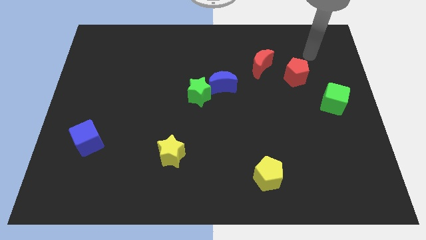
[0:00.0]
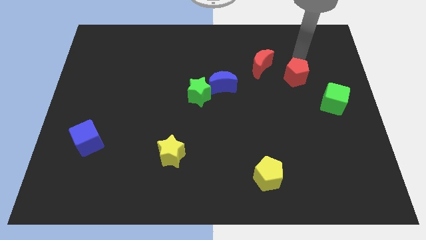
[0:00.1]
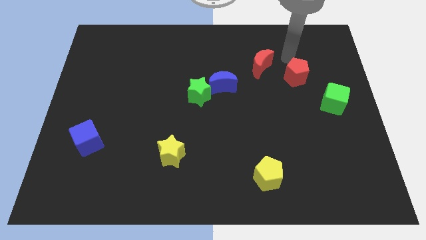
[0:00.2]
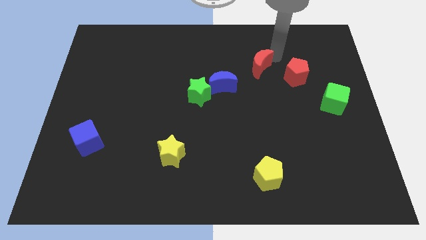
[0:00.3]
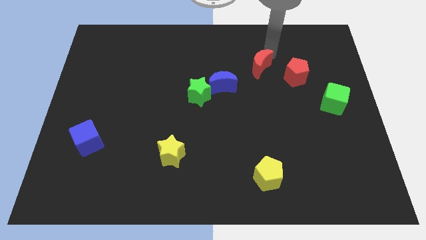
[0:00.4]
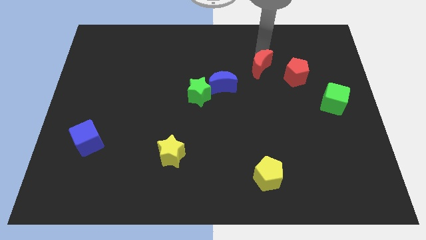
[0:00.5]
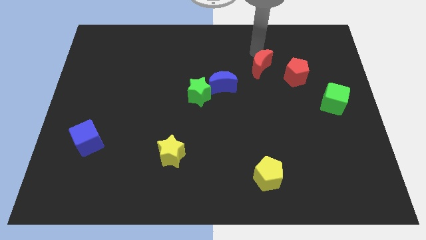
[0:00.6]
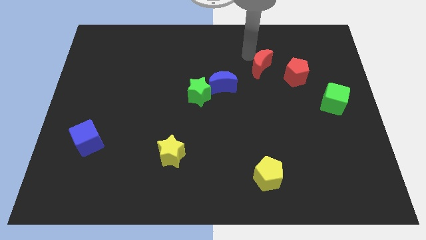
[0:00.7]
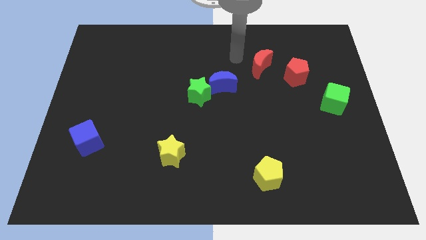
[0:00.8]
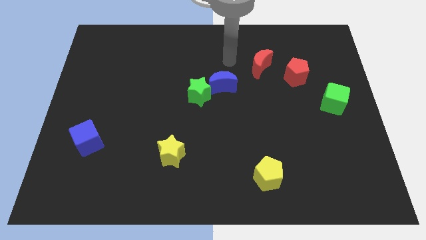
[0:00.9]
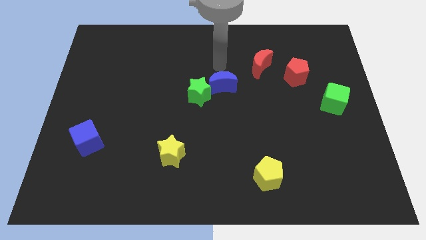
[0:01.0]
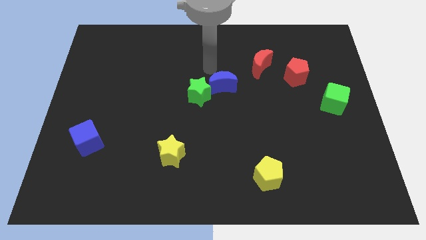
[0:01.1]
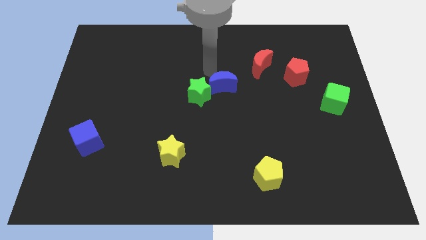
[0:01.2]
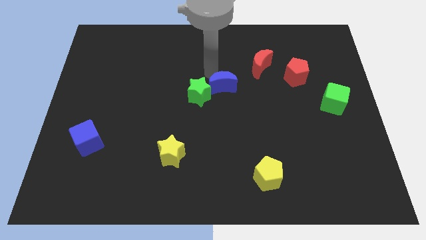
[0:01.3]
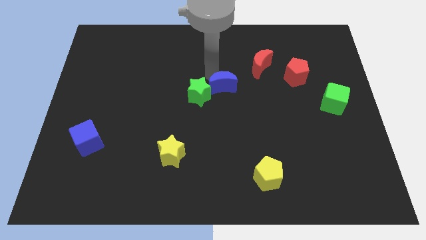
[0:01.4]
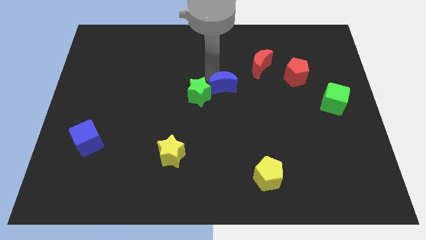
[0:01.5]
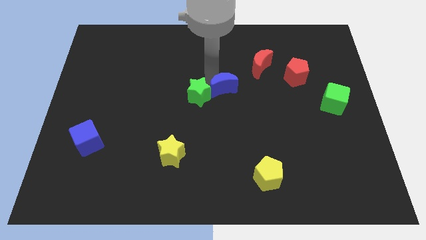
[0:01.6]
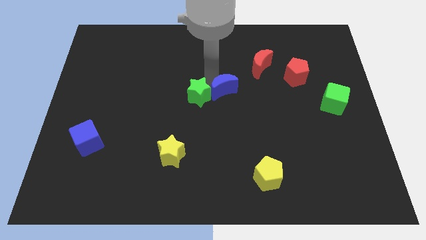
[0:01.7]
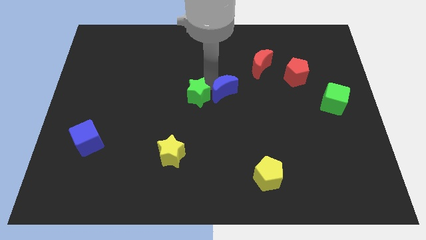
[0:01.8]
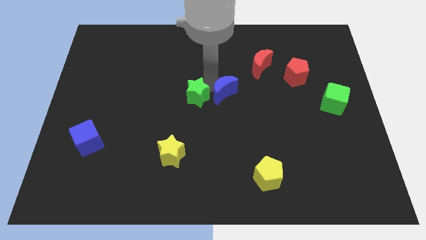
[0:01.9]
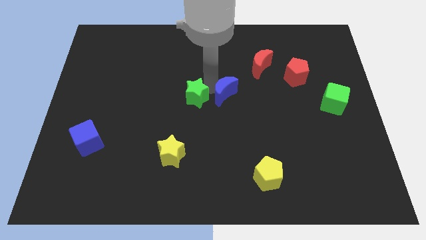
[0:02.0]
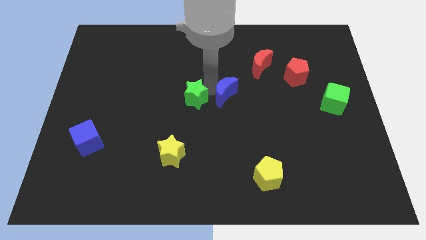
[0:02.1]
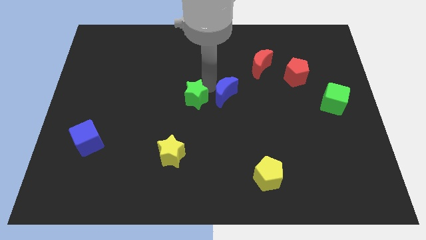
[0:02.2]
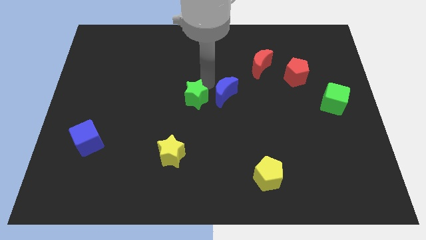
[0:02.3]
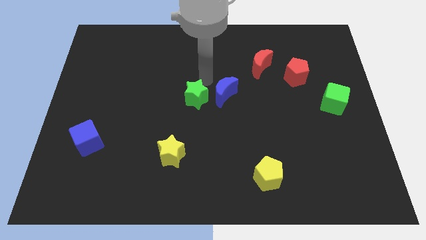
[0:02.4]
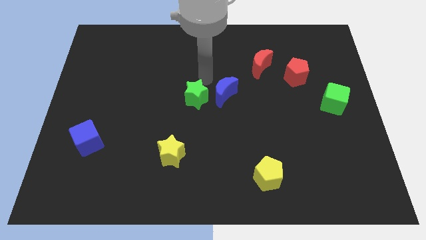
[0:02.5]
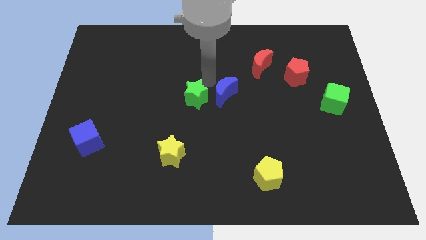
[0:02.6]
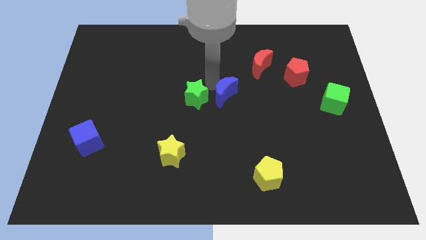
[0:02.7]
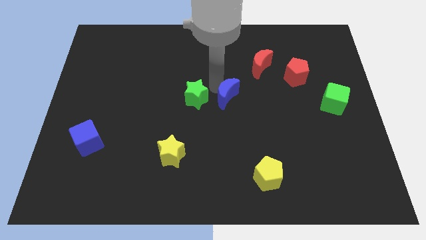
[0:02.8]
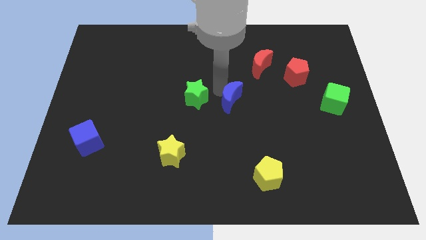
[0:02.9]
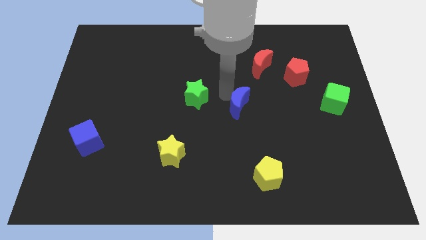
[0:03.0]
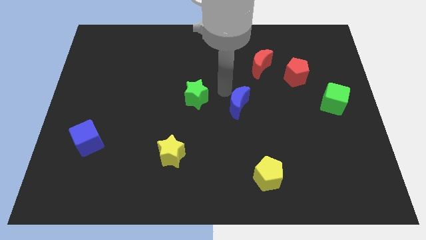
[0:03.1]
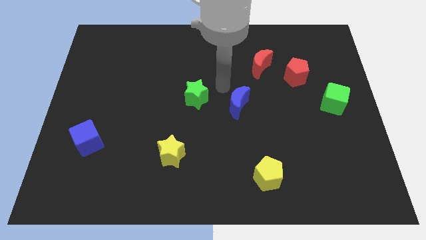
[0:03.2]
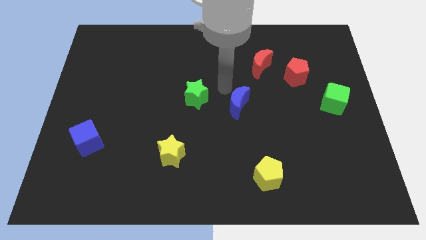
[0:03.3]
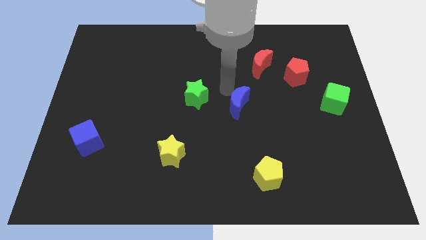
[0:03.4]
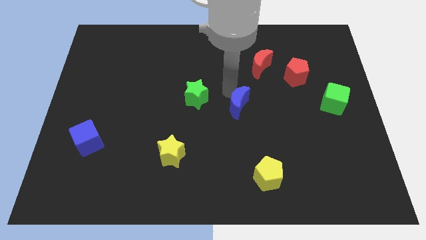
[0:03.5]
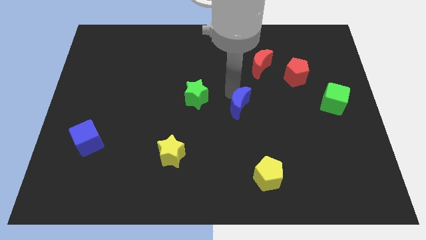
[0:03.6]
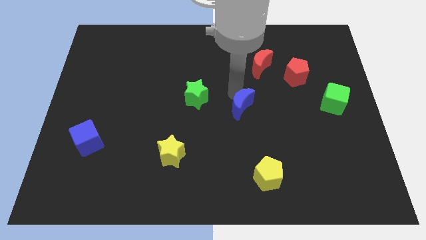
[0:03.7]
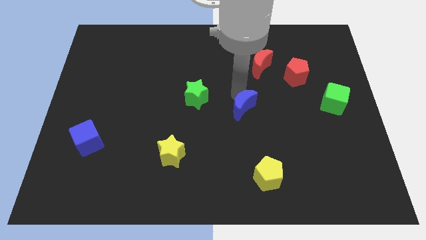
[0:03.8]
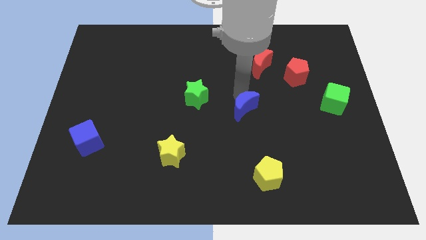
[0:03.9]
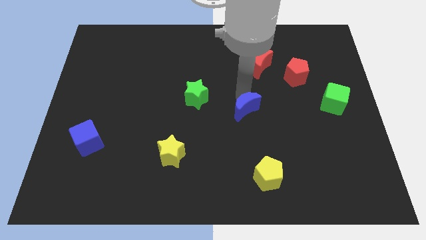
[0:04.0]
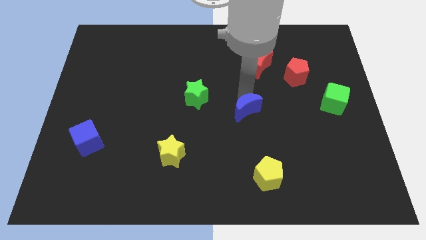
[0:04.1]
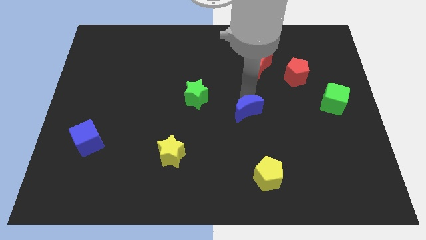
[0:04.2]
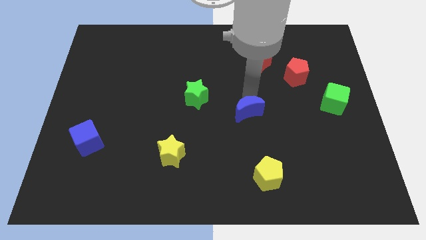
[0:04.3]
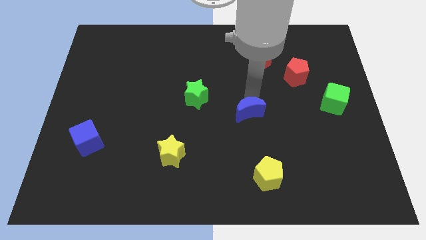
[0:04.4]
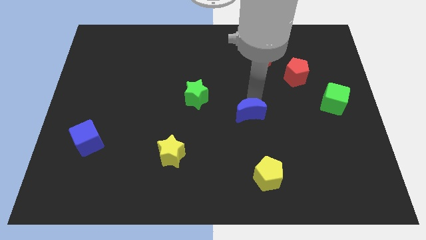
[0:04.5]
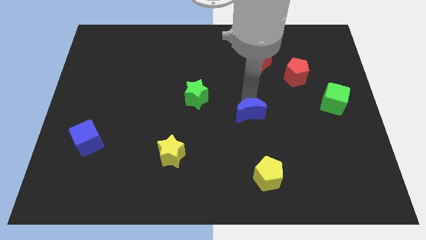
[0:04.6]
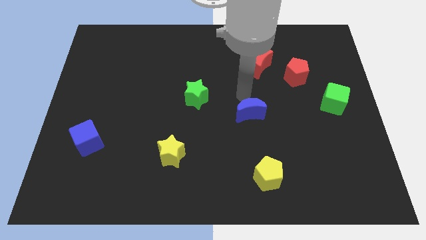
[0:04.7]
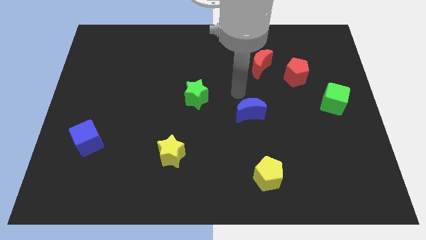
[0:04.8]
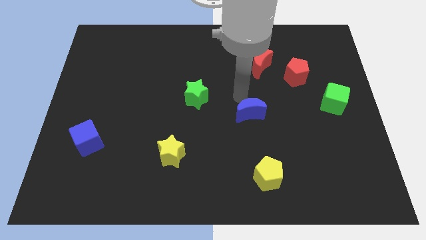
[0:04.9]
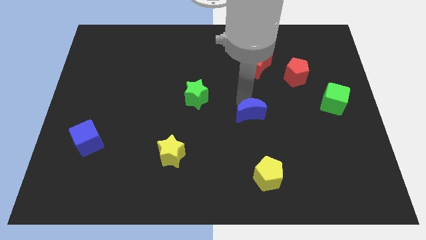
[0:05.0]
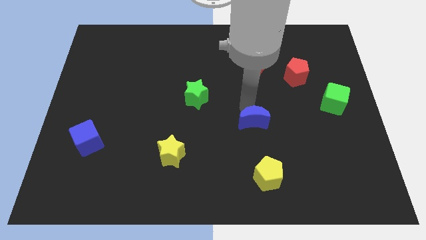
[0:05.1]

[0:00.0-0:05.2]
slide the blue moon above the yellow pentagon

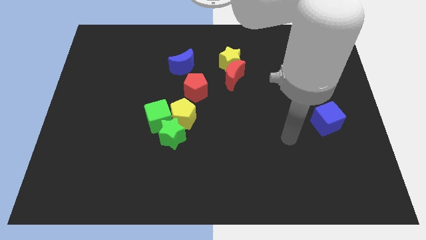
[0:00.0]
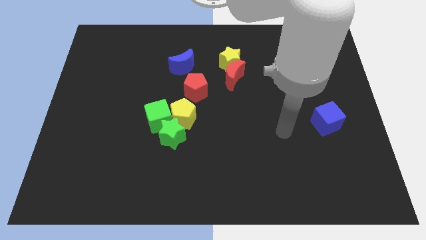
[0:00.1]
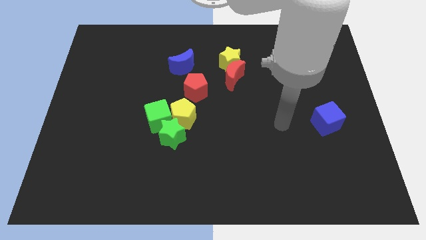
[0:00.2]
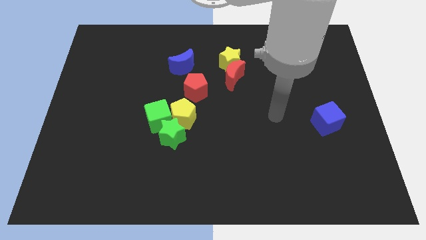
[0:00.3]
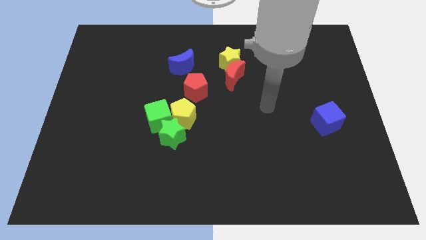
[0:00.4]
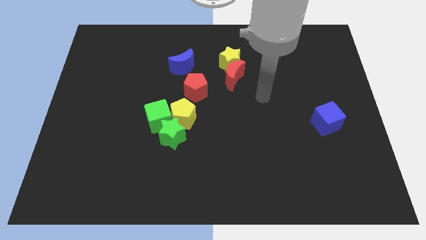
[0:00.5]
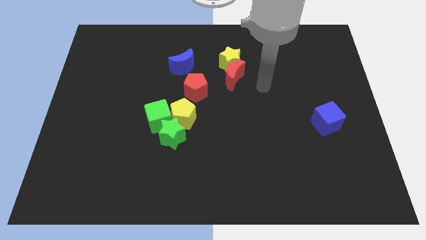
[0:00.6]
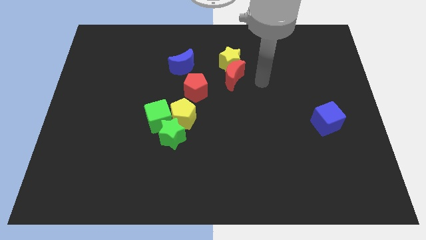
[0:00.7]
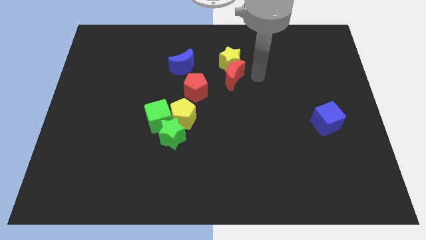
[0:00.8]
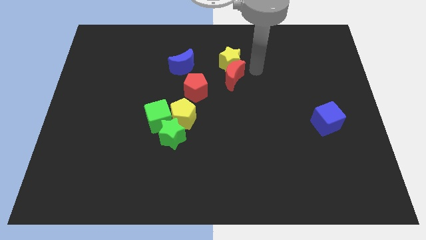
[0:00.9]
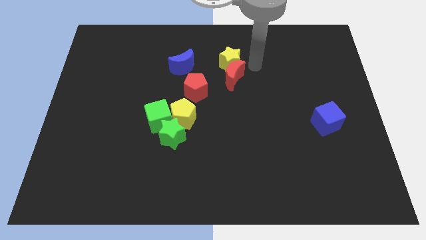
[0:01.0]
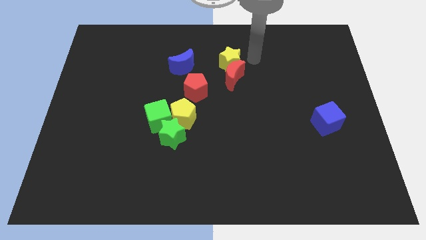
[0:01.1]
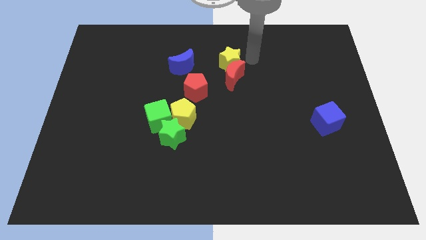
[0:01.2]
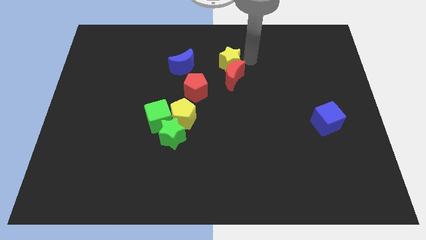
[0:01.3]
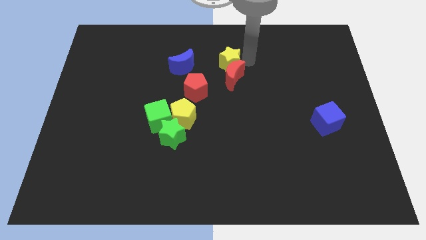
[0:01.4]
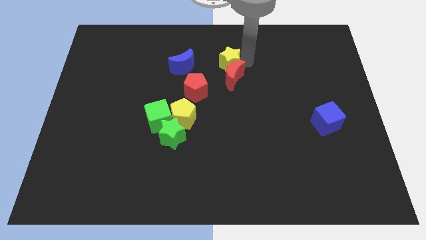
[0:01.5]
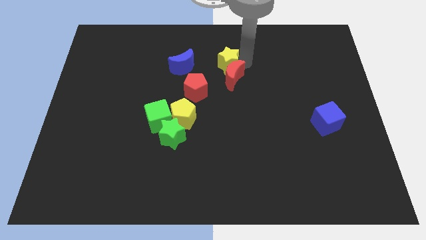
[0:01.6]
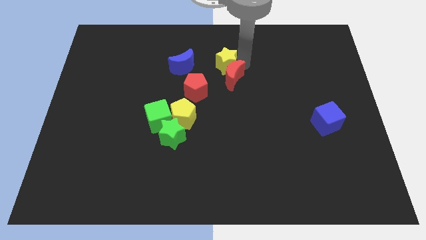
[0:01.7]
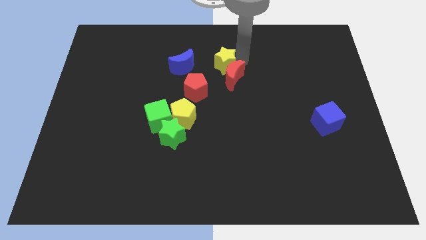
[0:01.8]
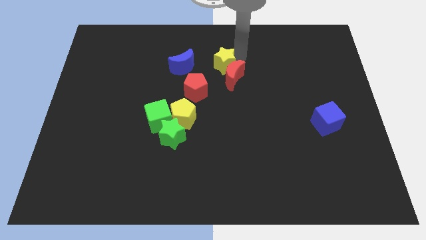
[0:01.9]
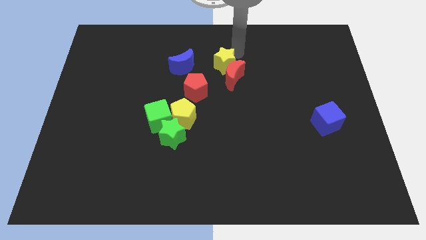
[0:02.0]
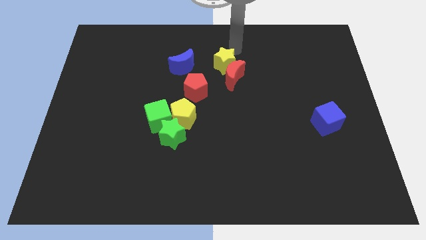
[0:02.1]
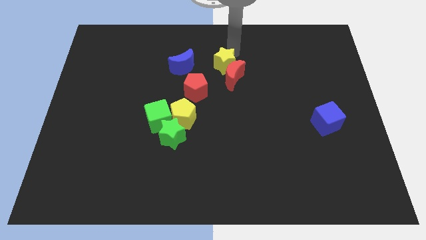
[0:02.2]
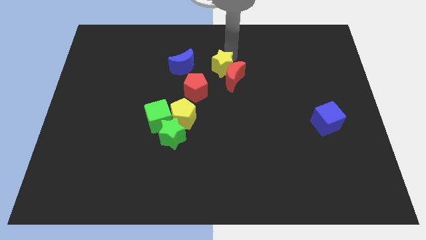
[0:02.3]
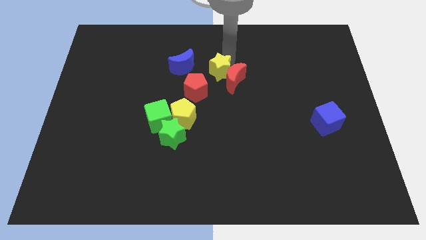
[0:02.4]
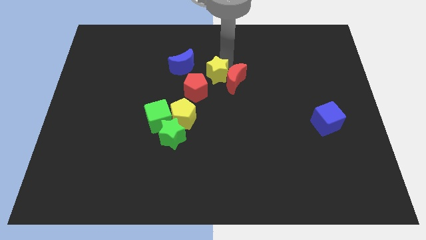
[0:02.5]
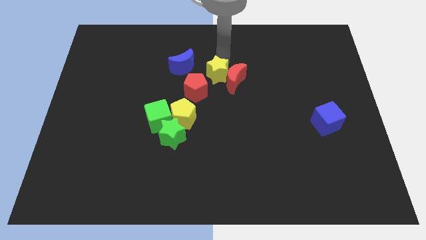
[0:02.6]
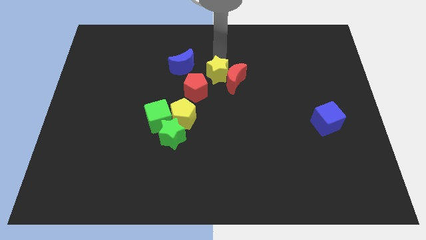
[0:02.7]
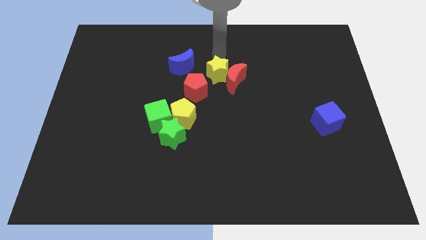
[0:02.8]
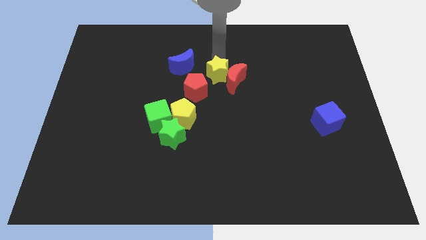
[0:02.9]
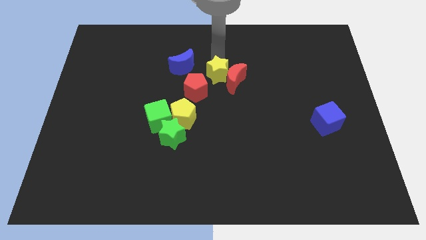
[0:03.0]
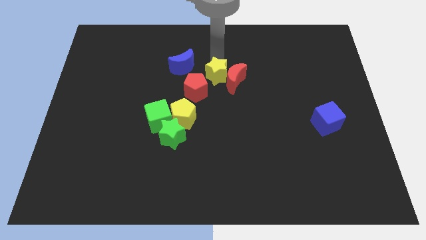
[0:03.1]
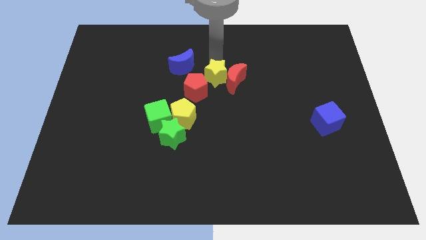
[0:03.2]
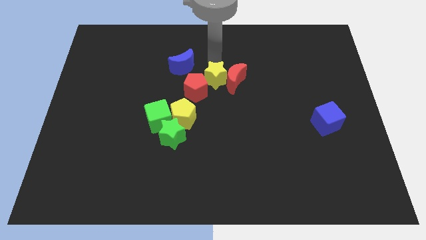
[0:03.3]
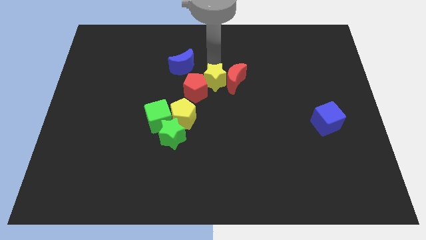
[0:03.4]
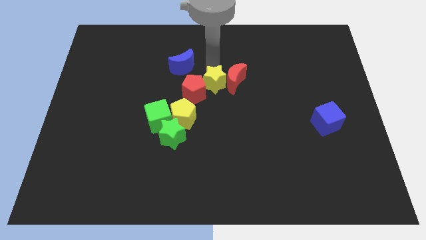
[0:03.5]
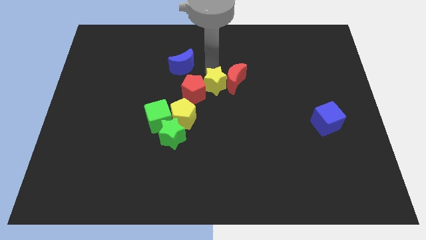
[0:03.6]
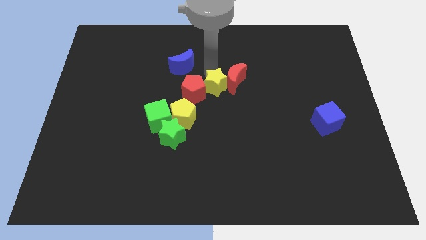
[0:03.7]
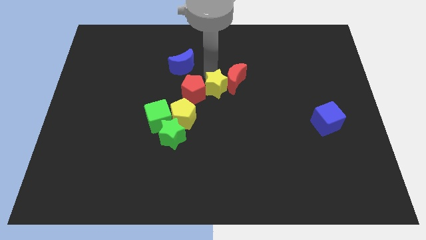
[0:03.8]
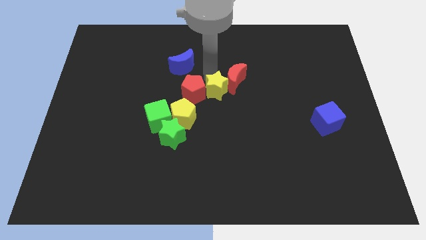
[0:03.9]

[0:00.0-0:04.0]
move the yellow star diagonally down and to the right of the red pentagon
